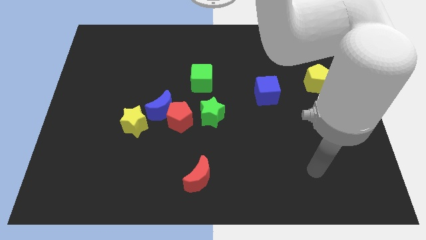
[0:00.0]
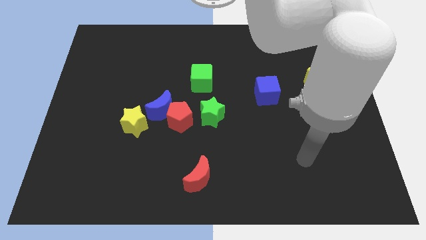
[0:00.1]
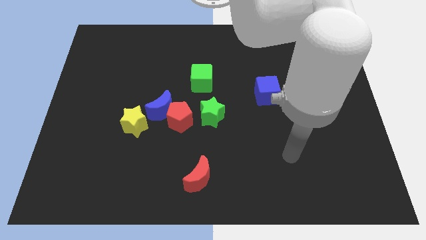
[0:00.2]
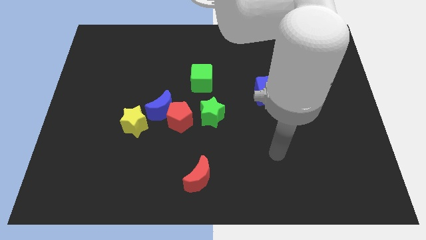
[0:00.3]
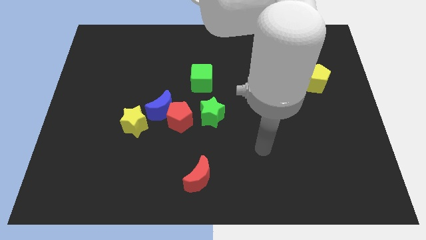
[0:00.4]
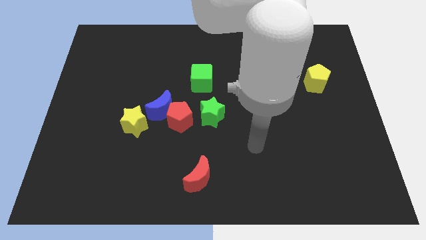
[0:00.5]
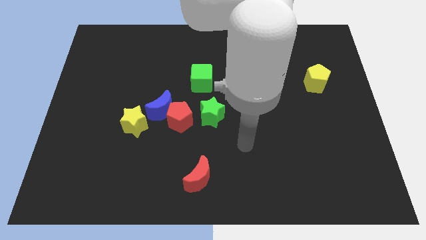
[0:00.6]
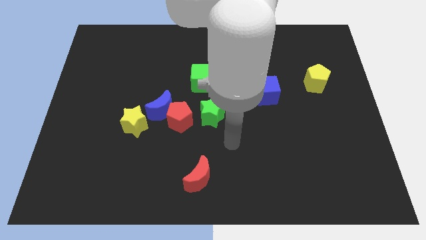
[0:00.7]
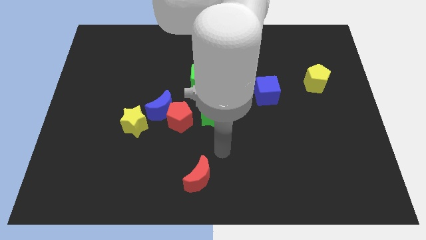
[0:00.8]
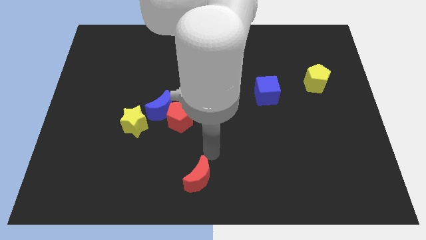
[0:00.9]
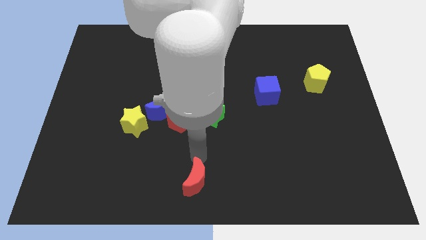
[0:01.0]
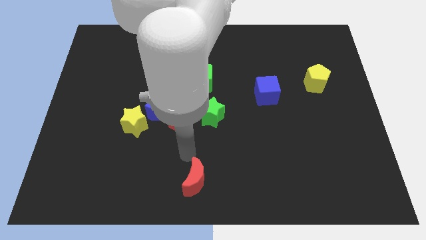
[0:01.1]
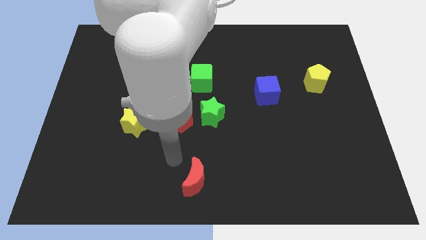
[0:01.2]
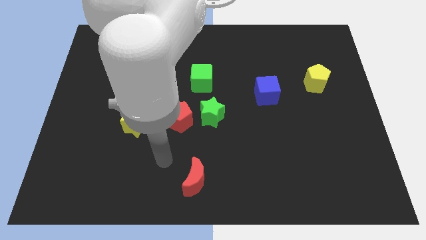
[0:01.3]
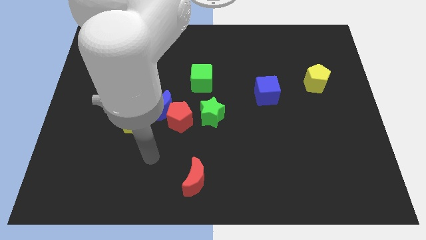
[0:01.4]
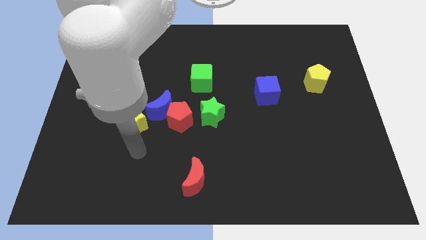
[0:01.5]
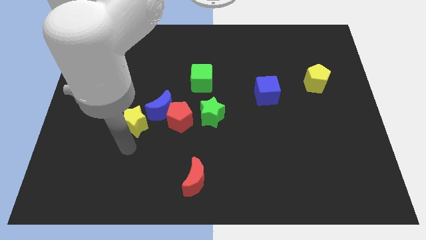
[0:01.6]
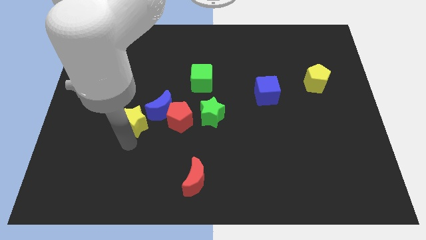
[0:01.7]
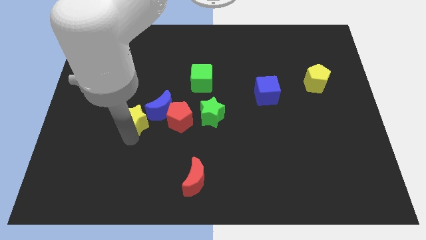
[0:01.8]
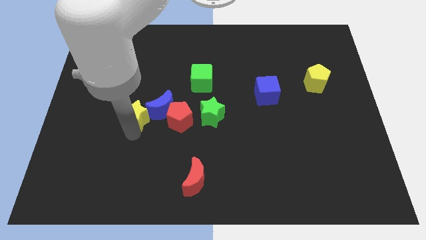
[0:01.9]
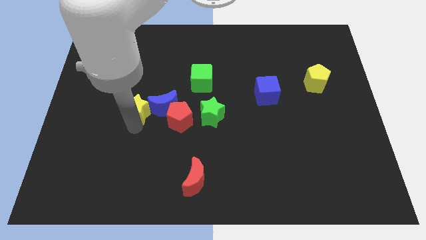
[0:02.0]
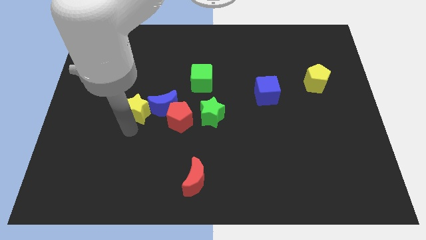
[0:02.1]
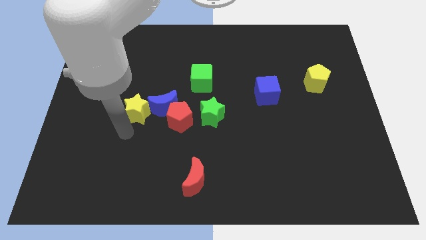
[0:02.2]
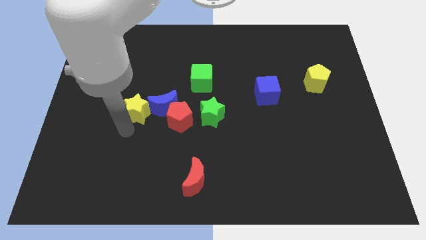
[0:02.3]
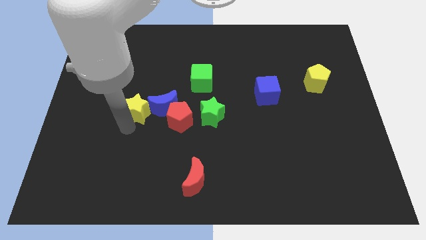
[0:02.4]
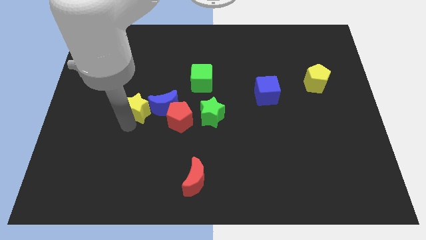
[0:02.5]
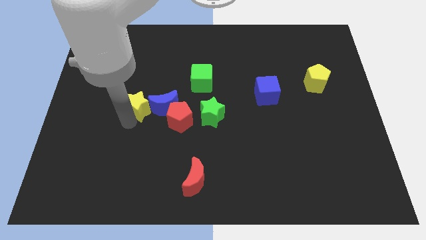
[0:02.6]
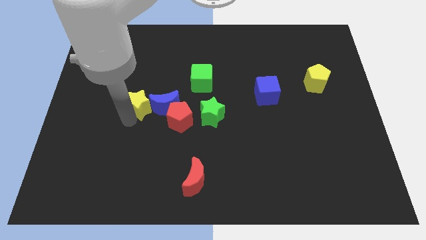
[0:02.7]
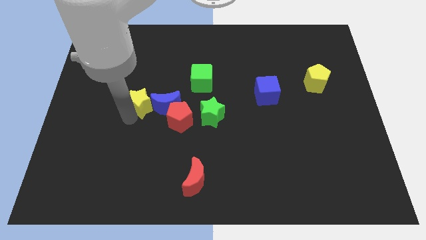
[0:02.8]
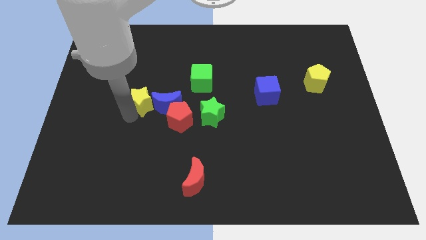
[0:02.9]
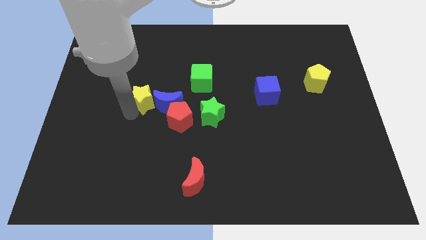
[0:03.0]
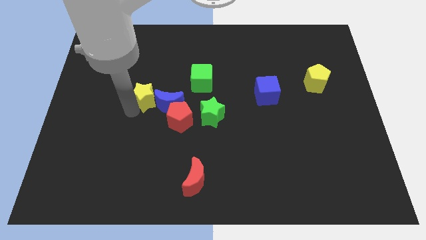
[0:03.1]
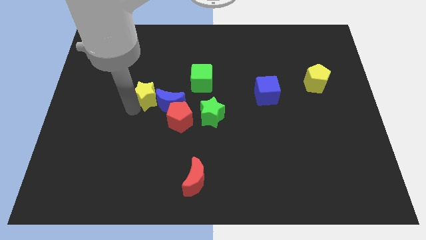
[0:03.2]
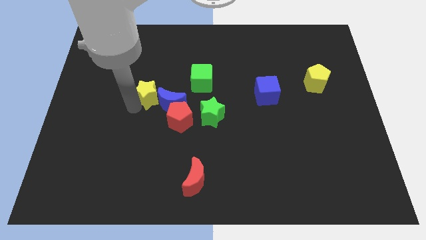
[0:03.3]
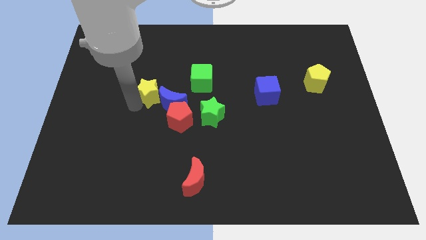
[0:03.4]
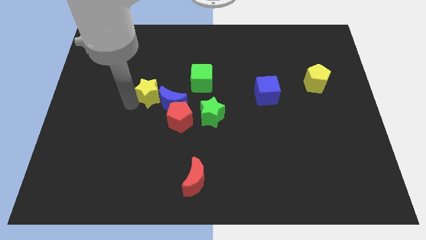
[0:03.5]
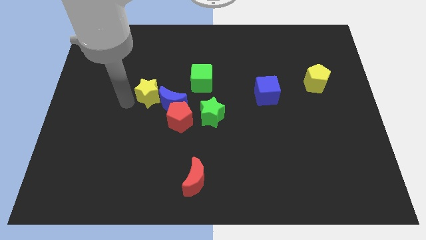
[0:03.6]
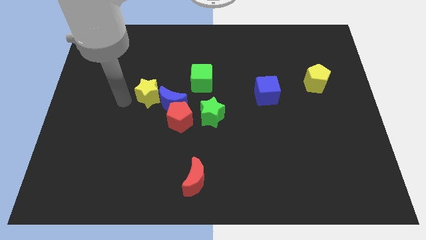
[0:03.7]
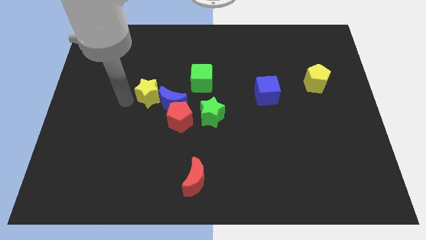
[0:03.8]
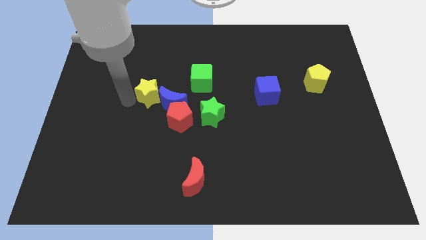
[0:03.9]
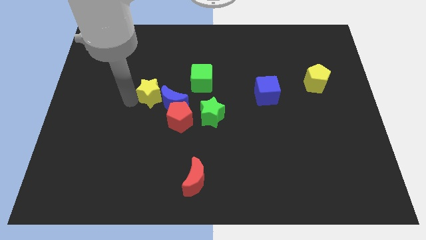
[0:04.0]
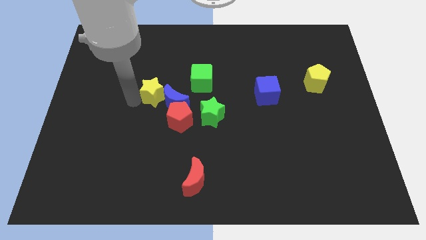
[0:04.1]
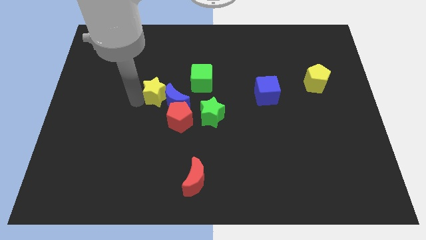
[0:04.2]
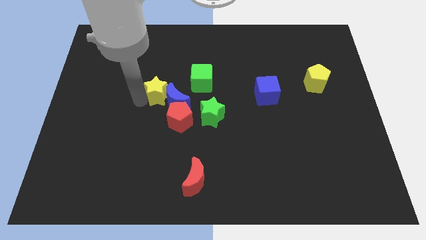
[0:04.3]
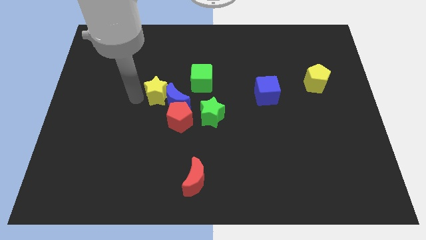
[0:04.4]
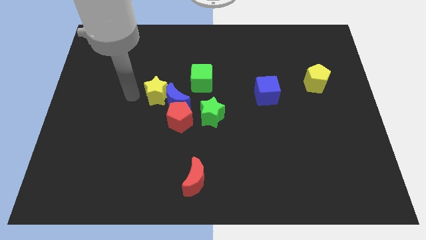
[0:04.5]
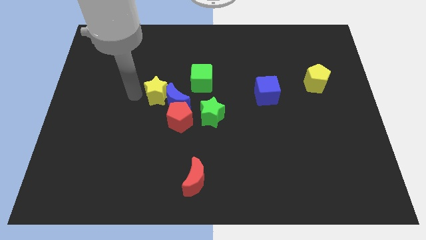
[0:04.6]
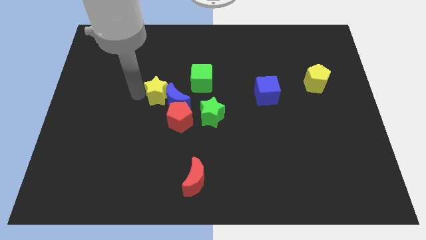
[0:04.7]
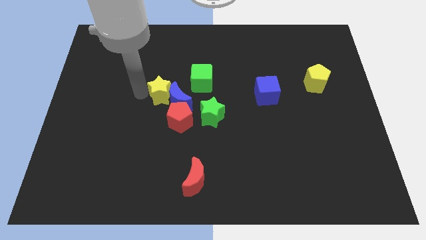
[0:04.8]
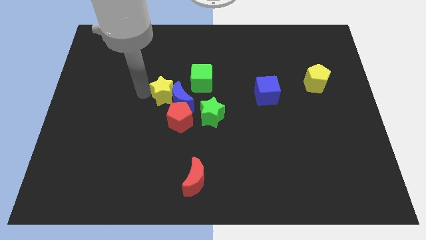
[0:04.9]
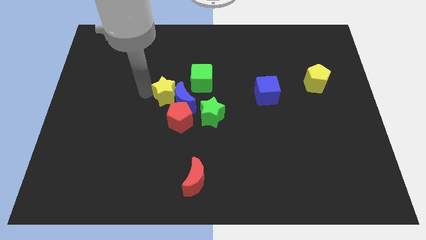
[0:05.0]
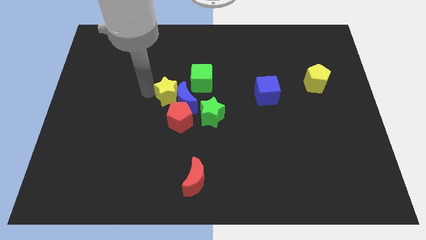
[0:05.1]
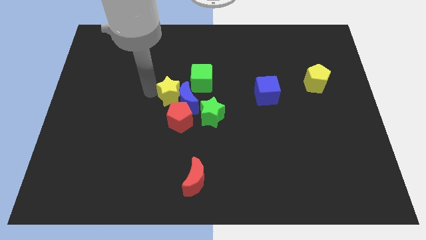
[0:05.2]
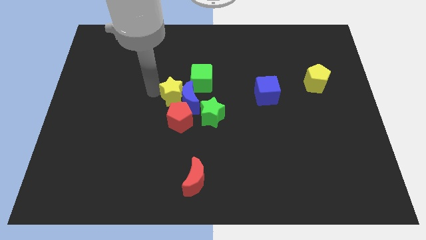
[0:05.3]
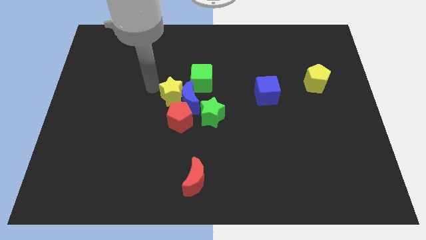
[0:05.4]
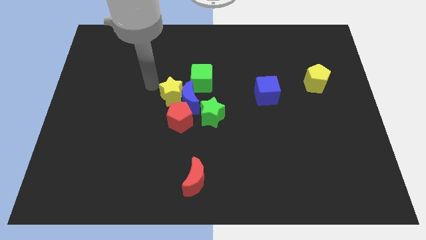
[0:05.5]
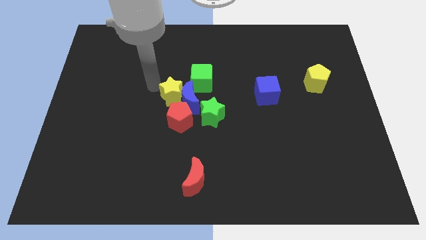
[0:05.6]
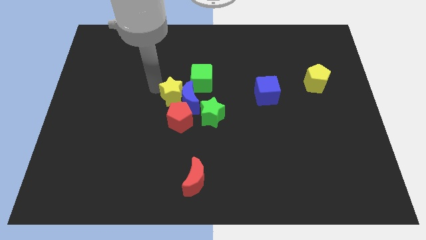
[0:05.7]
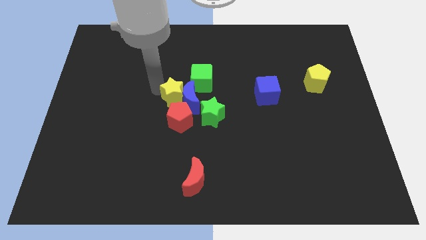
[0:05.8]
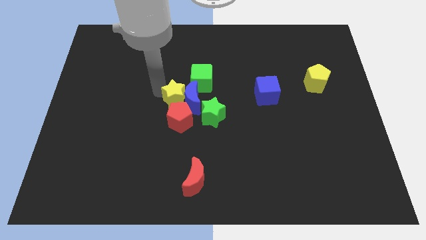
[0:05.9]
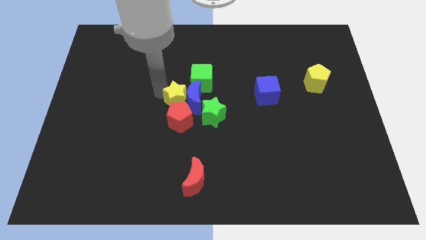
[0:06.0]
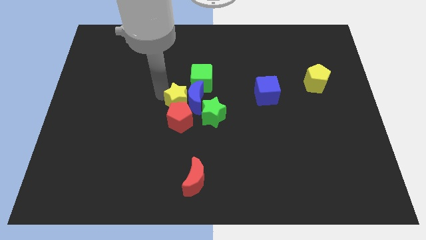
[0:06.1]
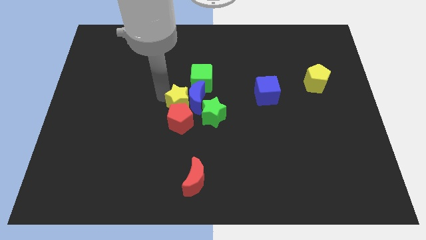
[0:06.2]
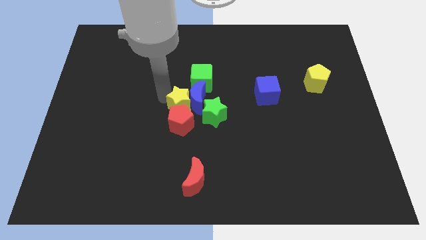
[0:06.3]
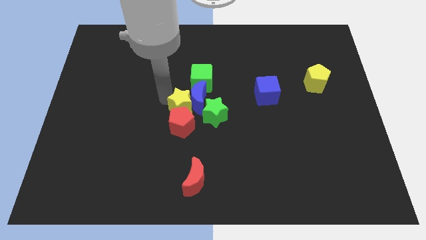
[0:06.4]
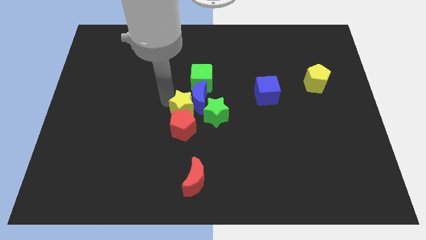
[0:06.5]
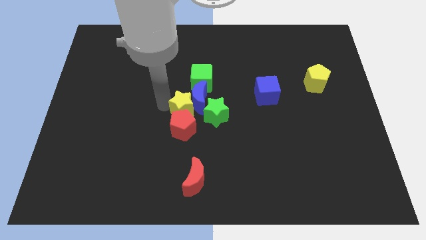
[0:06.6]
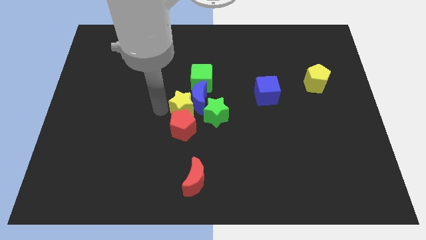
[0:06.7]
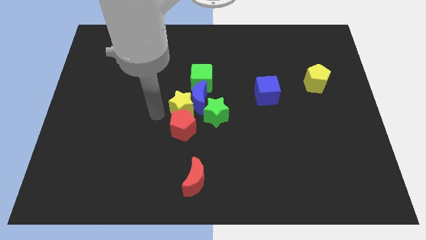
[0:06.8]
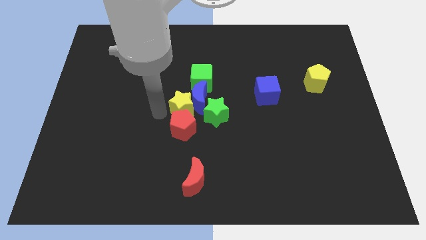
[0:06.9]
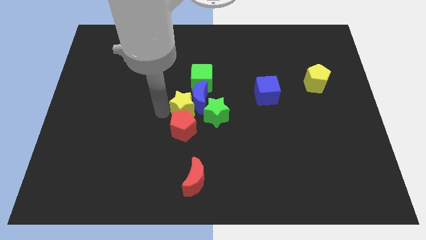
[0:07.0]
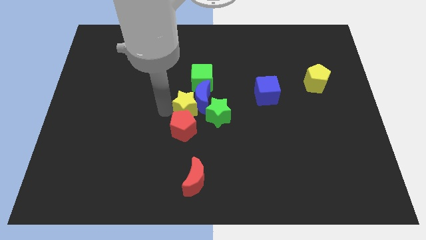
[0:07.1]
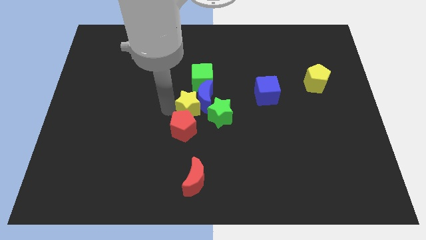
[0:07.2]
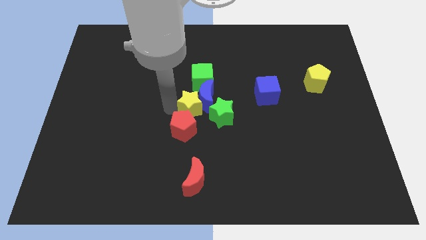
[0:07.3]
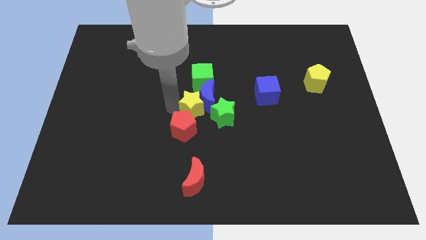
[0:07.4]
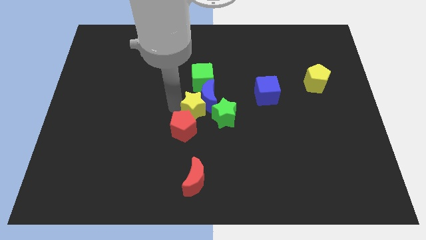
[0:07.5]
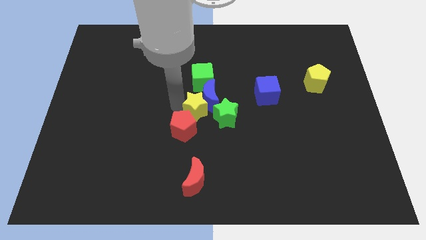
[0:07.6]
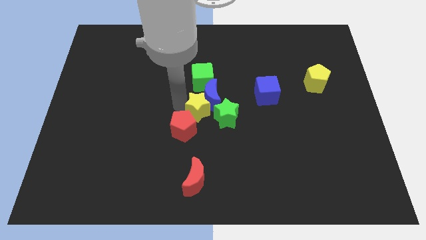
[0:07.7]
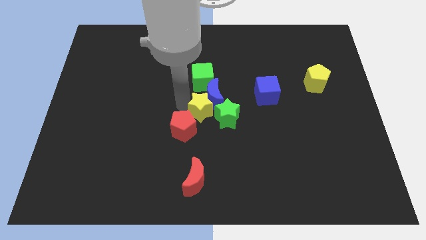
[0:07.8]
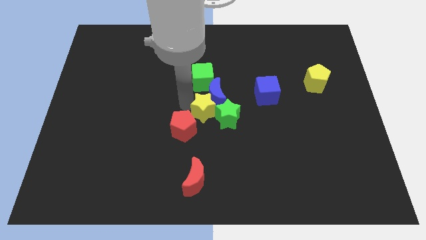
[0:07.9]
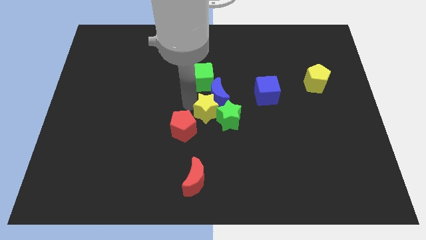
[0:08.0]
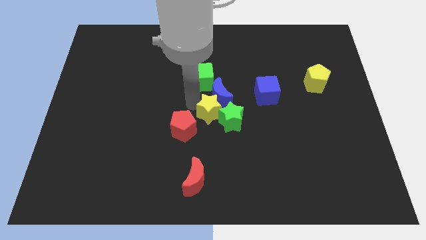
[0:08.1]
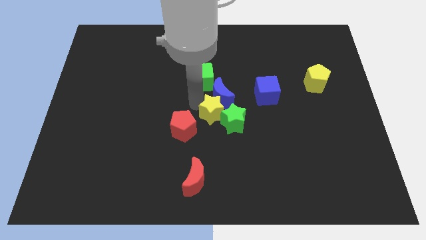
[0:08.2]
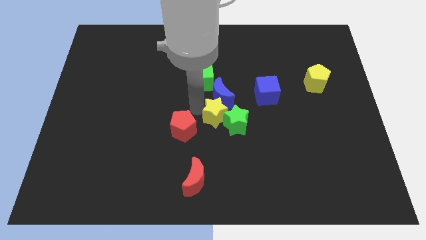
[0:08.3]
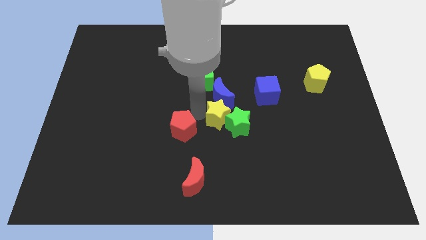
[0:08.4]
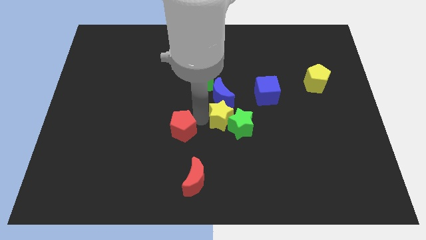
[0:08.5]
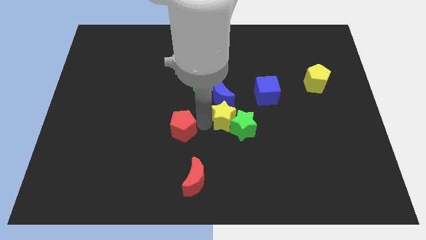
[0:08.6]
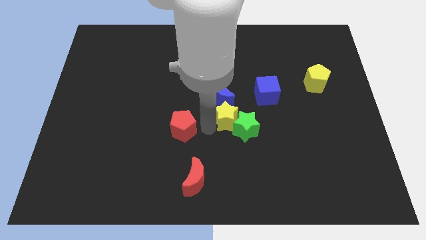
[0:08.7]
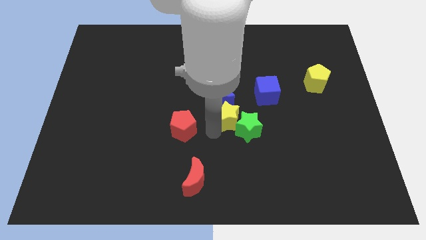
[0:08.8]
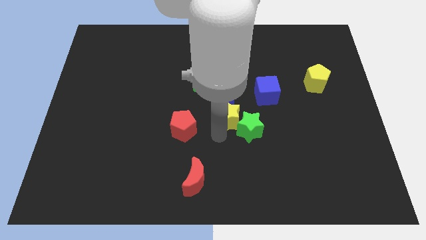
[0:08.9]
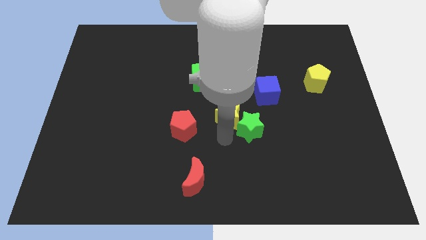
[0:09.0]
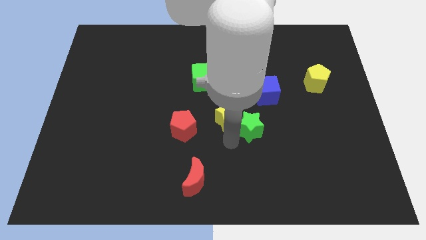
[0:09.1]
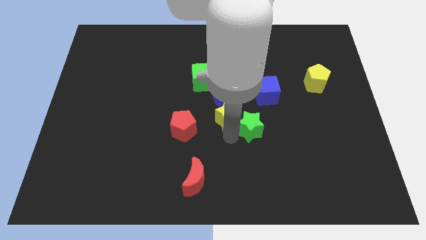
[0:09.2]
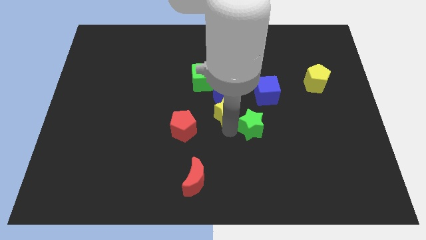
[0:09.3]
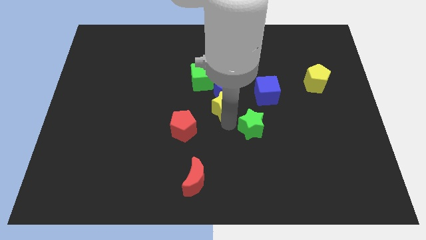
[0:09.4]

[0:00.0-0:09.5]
slide the yellow star to the left side of the blue cube
